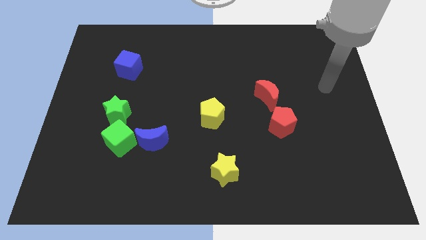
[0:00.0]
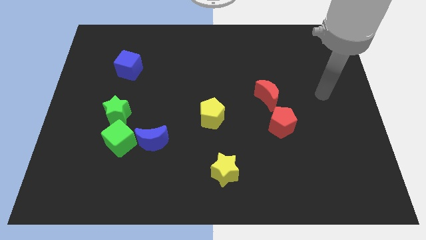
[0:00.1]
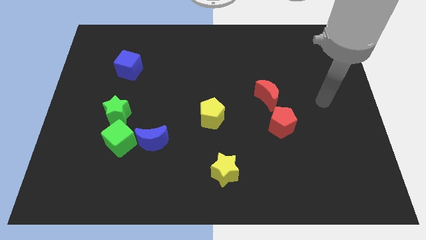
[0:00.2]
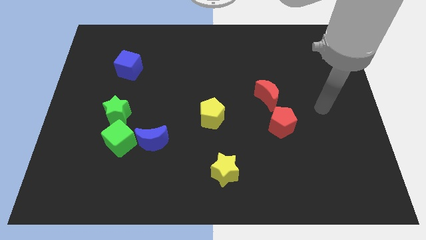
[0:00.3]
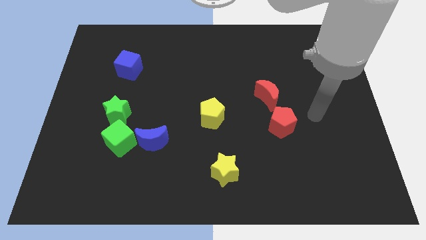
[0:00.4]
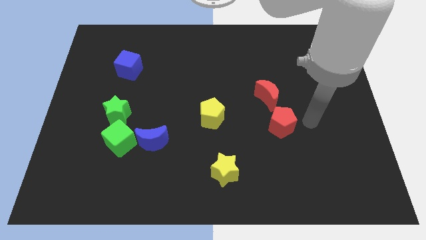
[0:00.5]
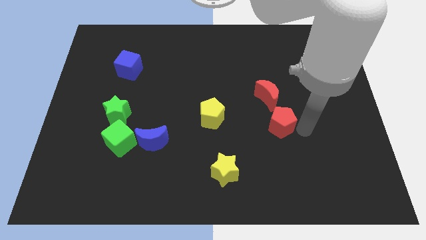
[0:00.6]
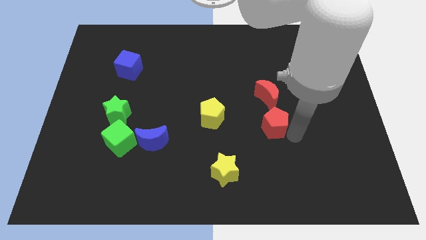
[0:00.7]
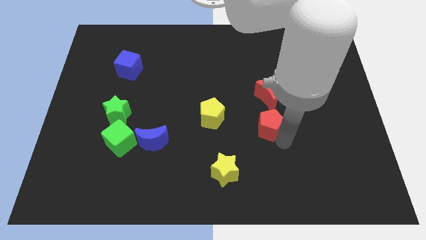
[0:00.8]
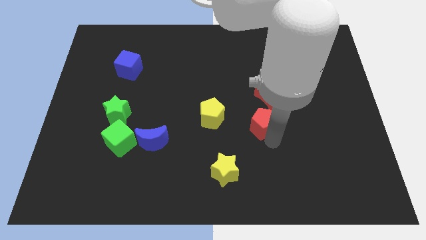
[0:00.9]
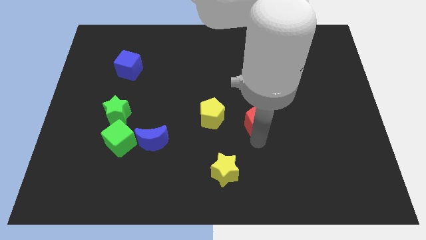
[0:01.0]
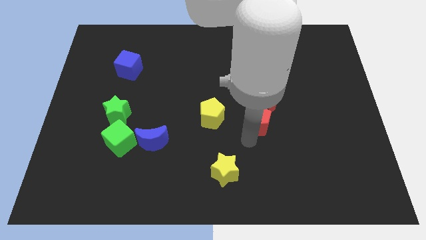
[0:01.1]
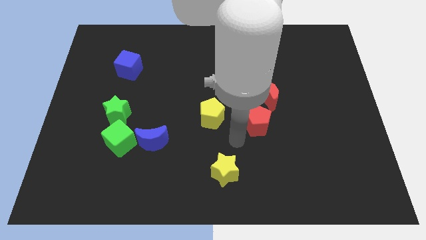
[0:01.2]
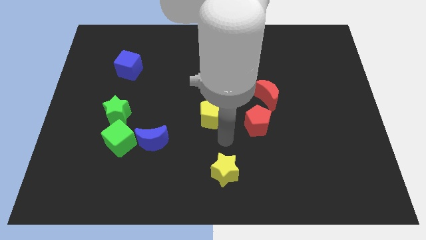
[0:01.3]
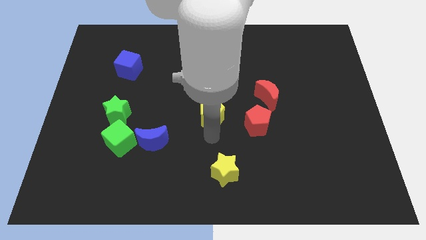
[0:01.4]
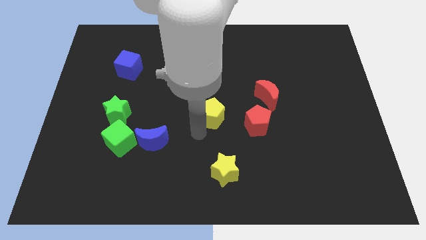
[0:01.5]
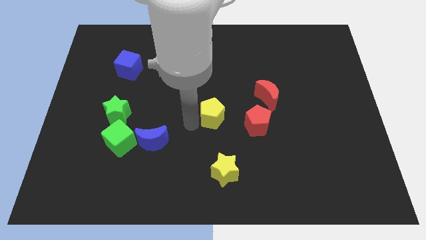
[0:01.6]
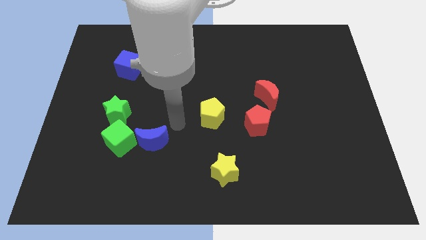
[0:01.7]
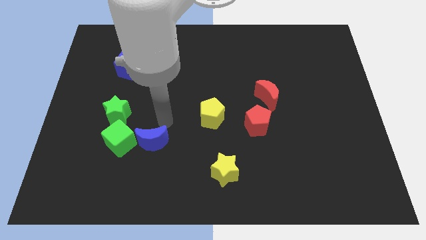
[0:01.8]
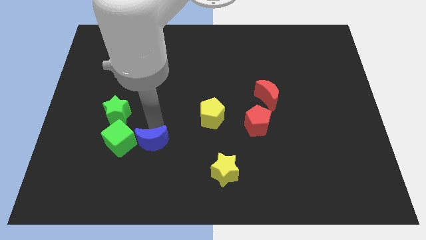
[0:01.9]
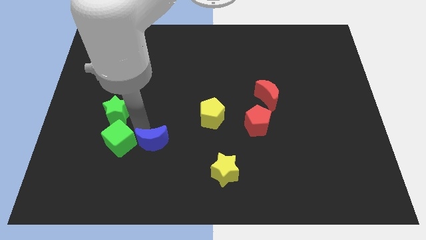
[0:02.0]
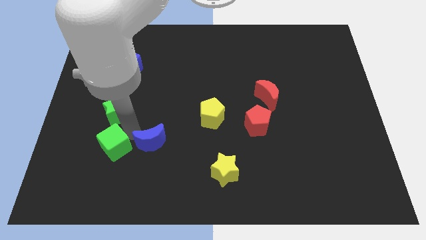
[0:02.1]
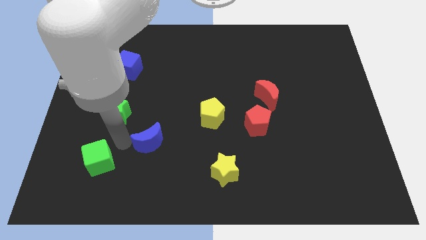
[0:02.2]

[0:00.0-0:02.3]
move the blue moon away from the green cube

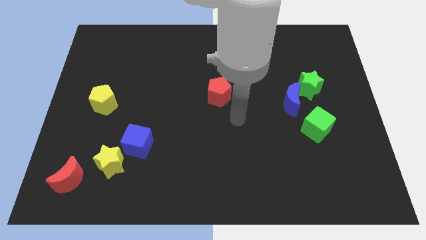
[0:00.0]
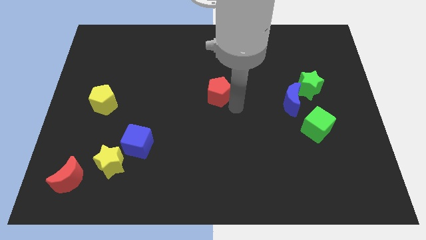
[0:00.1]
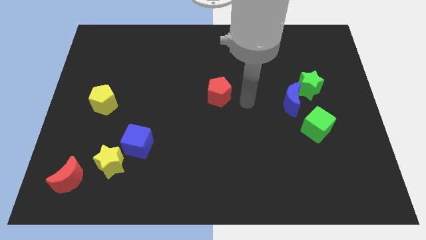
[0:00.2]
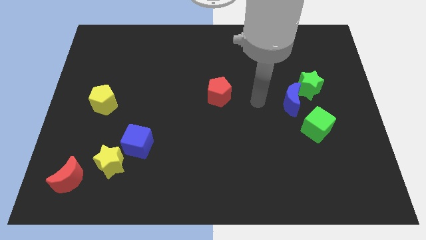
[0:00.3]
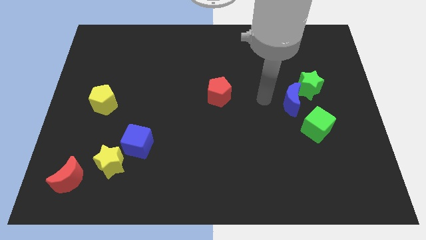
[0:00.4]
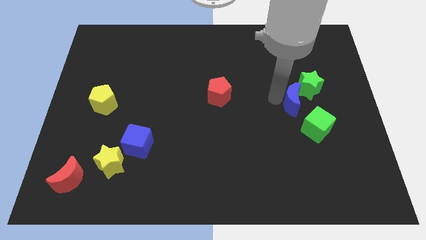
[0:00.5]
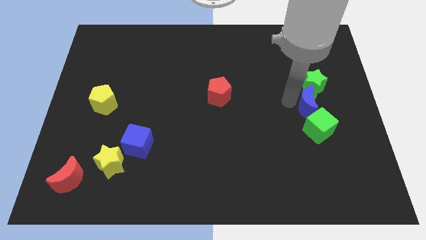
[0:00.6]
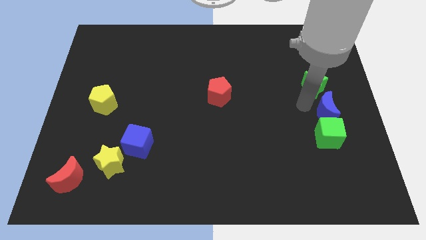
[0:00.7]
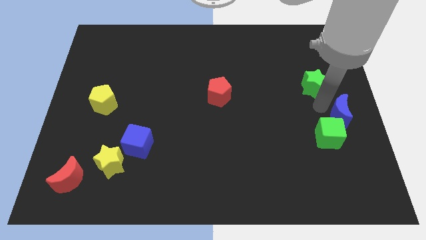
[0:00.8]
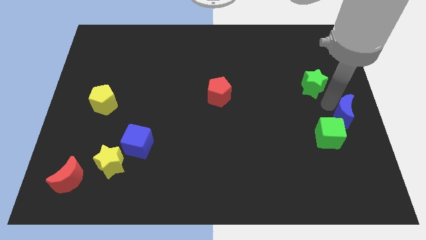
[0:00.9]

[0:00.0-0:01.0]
pull the green star apart from the blue moon

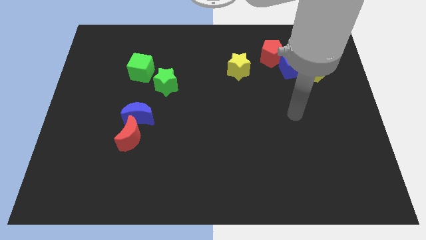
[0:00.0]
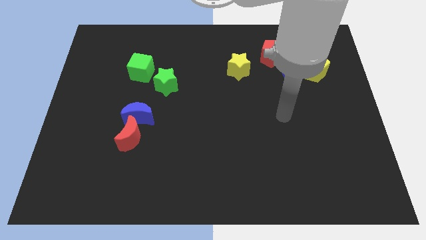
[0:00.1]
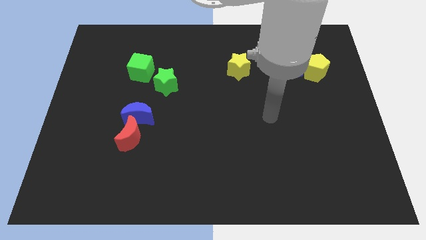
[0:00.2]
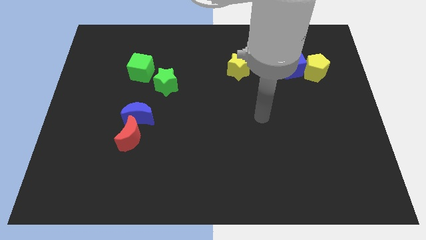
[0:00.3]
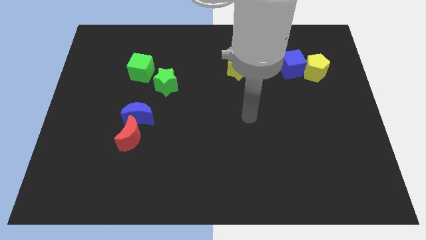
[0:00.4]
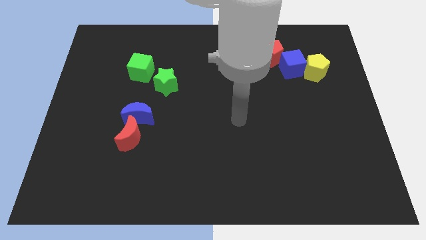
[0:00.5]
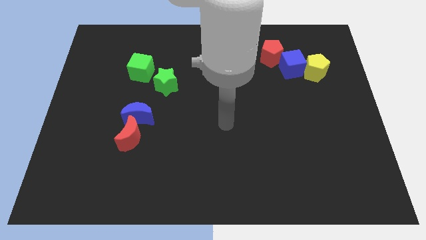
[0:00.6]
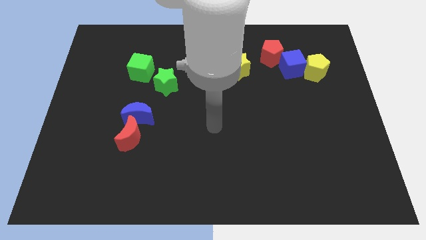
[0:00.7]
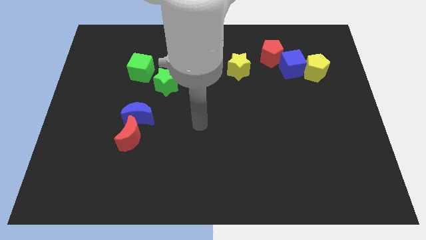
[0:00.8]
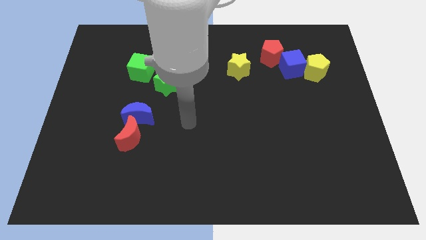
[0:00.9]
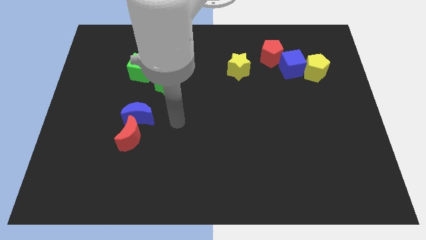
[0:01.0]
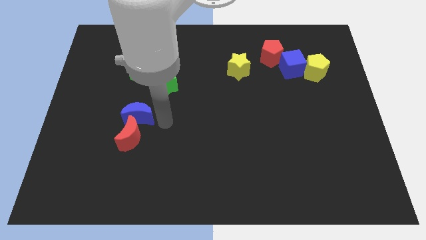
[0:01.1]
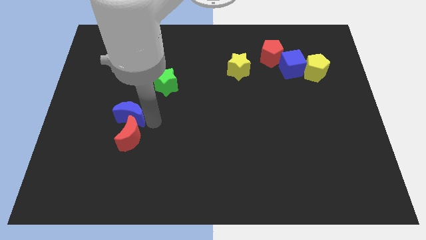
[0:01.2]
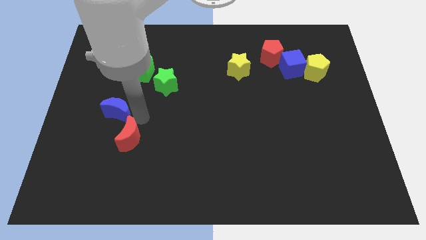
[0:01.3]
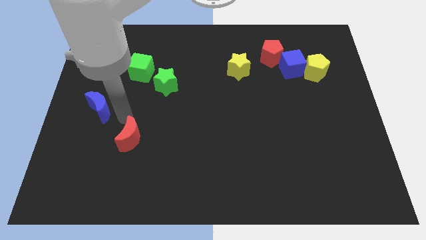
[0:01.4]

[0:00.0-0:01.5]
move the red moon away from the blue moon

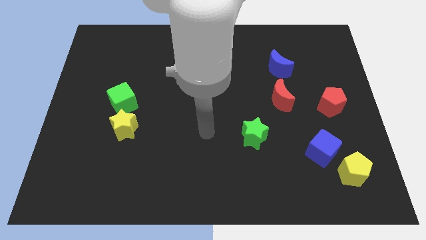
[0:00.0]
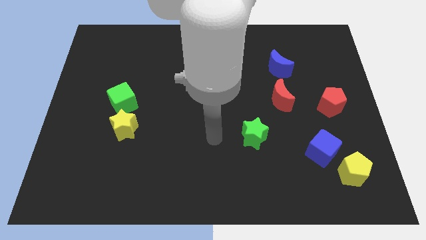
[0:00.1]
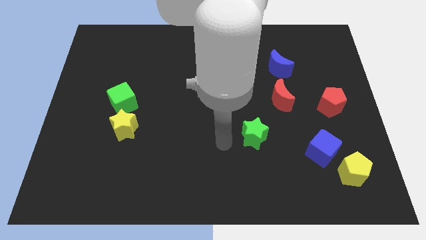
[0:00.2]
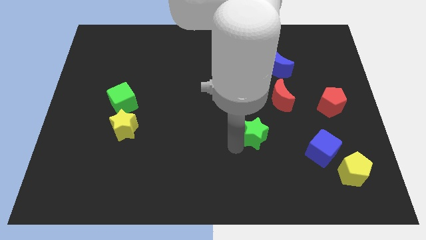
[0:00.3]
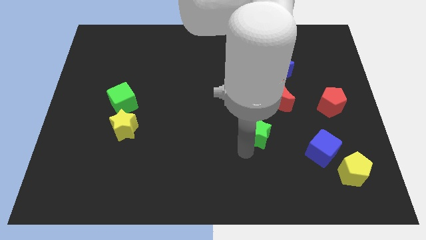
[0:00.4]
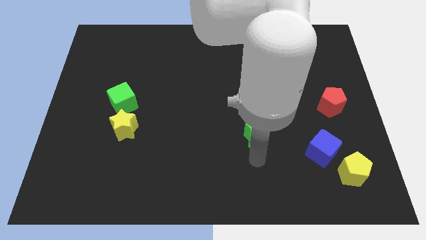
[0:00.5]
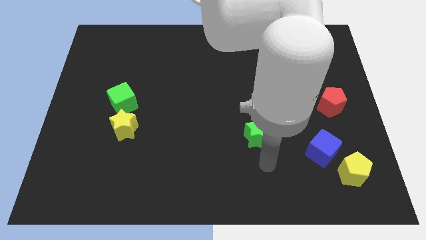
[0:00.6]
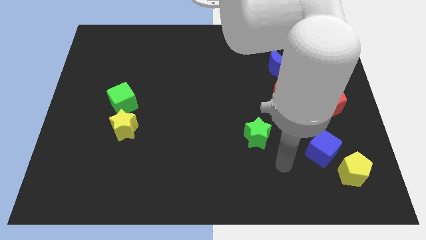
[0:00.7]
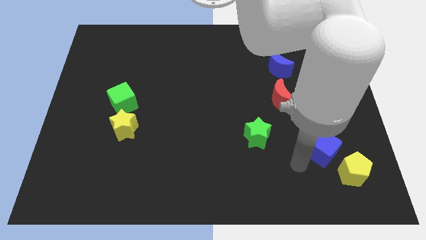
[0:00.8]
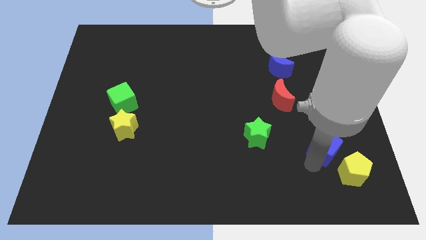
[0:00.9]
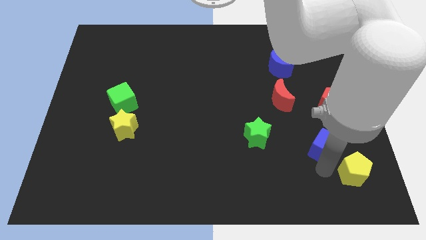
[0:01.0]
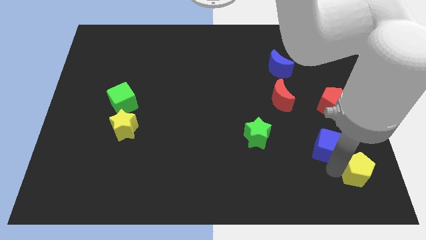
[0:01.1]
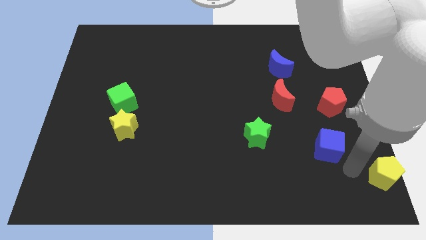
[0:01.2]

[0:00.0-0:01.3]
pull the blue cube apart from the yellow pentagon

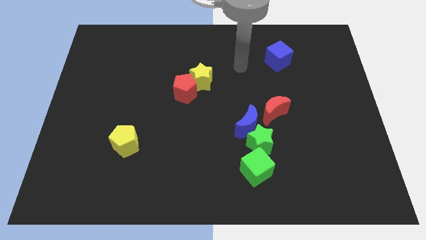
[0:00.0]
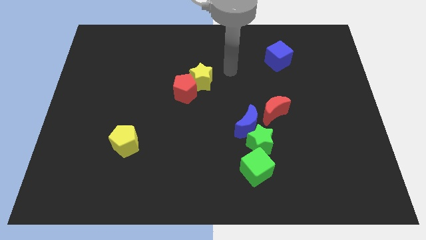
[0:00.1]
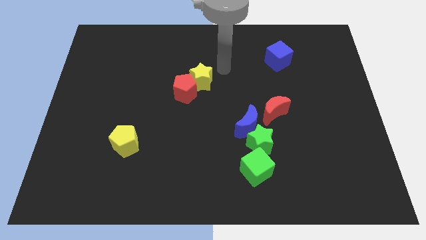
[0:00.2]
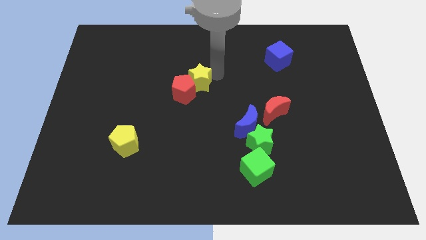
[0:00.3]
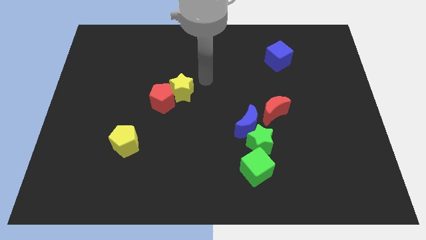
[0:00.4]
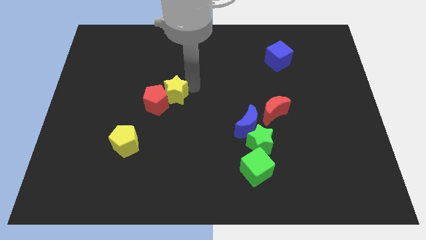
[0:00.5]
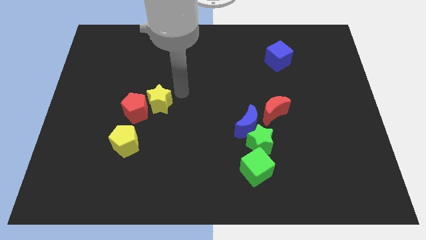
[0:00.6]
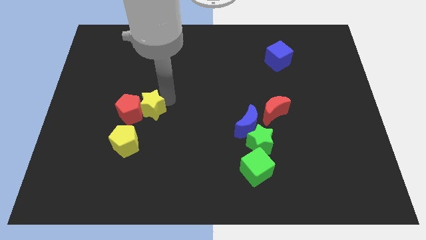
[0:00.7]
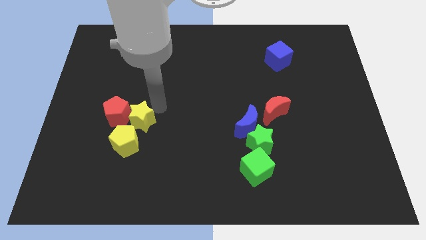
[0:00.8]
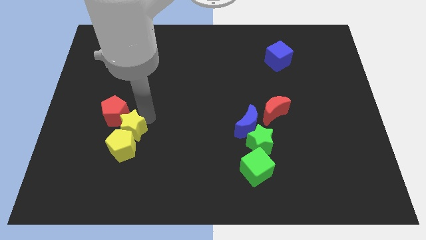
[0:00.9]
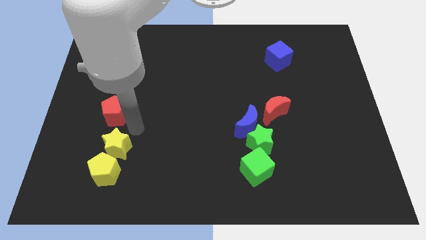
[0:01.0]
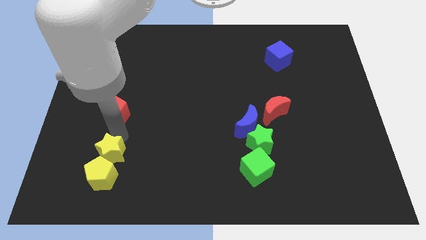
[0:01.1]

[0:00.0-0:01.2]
pull the red pentagon apart from the yellow star

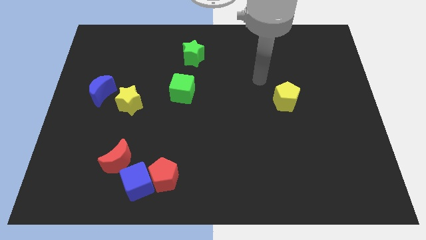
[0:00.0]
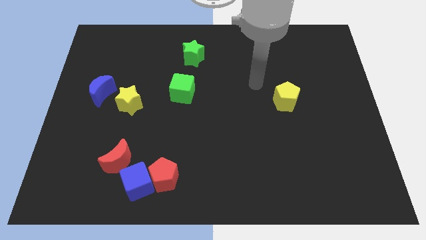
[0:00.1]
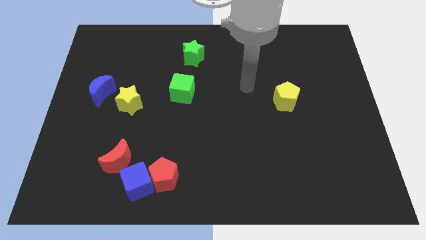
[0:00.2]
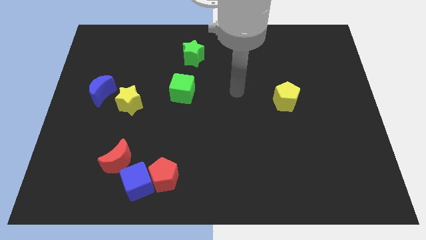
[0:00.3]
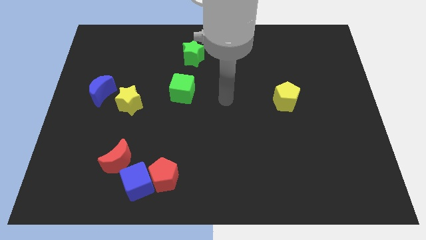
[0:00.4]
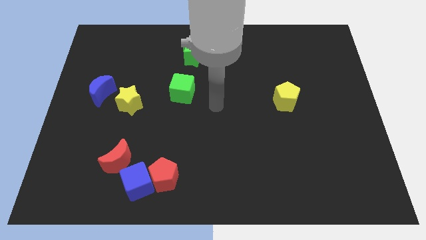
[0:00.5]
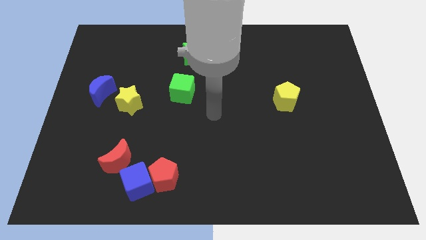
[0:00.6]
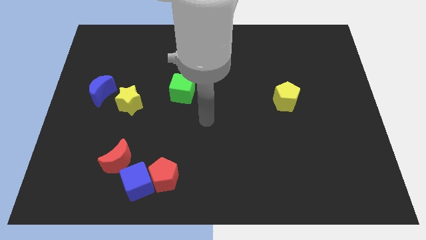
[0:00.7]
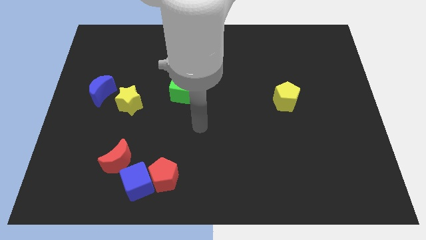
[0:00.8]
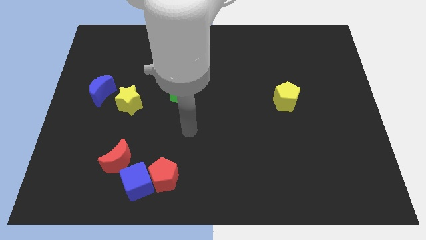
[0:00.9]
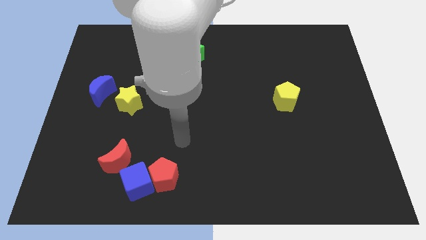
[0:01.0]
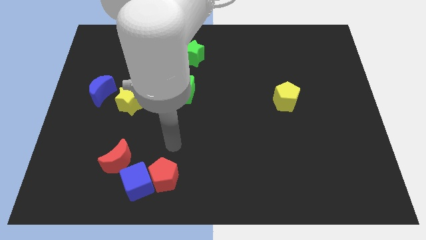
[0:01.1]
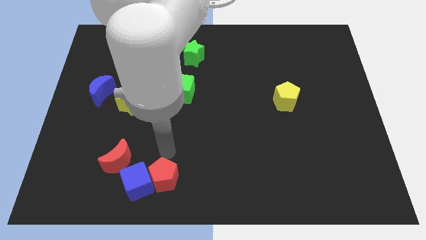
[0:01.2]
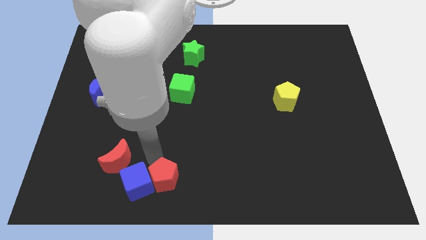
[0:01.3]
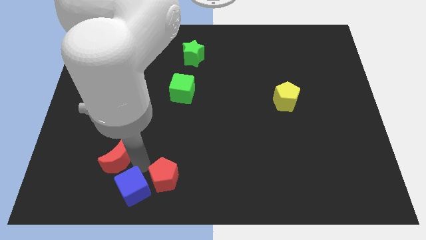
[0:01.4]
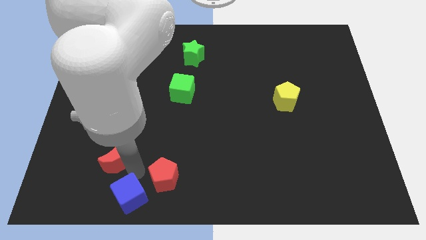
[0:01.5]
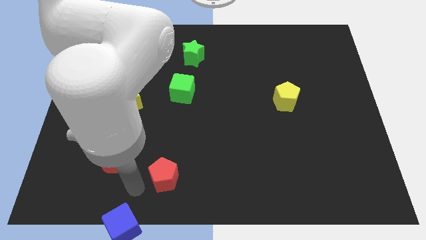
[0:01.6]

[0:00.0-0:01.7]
pull the red pentagon apart from the blue cube

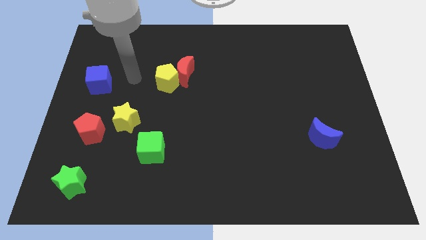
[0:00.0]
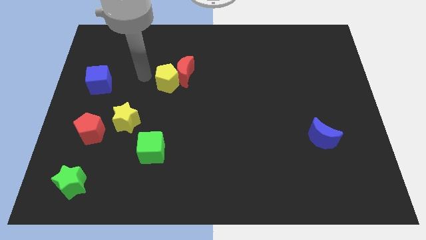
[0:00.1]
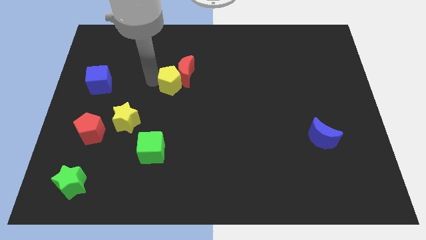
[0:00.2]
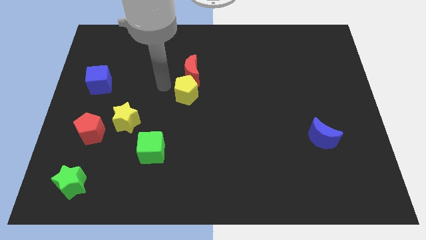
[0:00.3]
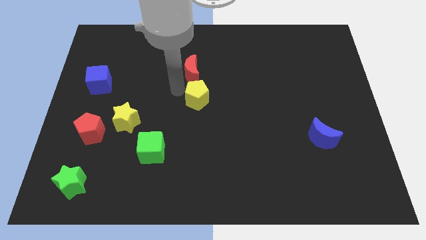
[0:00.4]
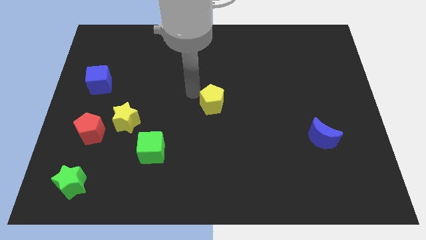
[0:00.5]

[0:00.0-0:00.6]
pull the red moon apart from the yellow pentagon
